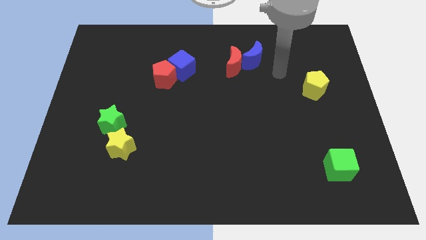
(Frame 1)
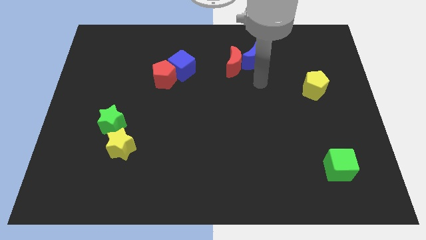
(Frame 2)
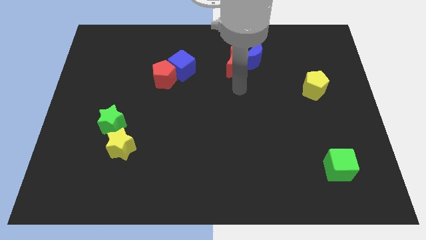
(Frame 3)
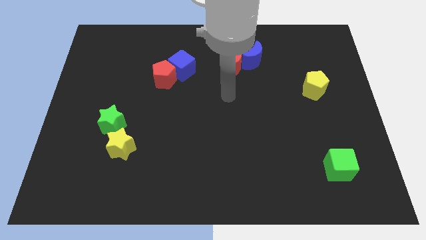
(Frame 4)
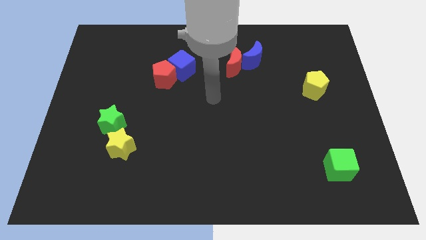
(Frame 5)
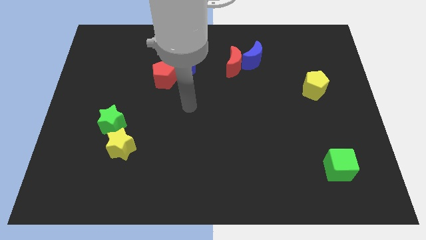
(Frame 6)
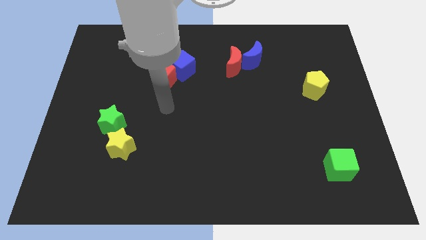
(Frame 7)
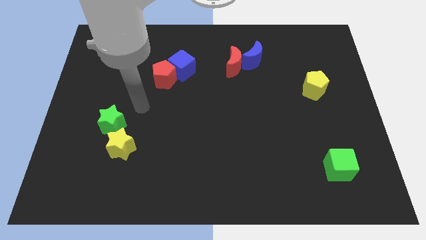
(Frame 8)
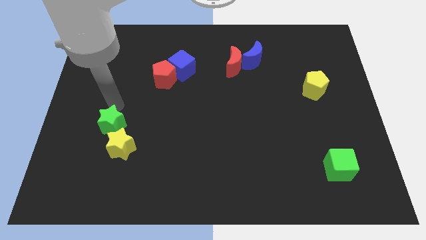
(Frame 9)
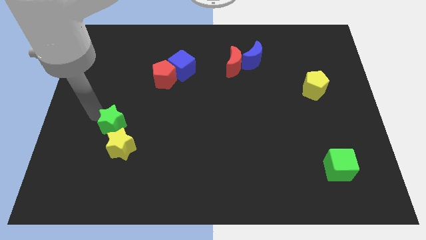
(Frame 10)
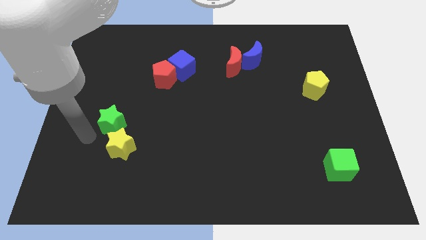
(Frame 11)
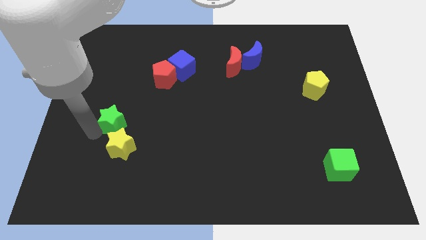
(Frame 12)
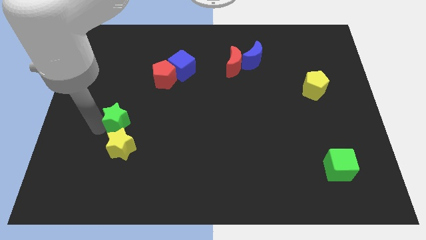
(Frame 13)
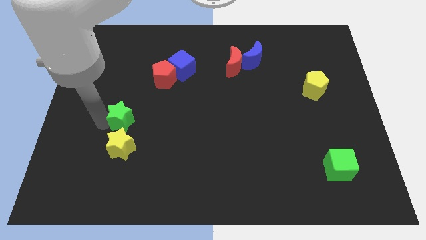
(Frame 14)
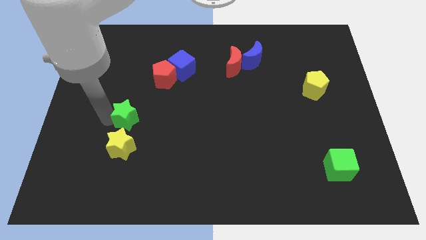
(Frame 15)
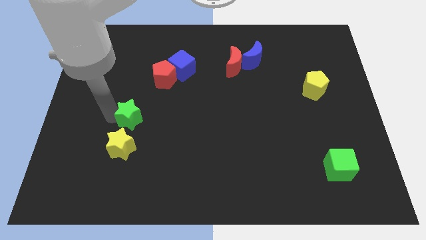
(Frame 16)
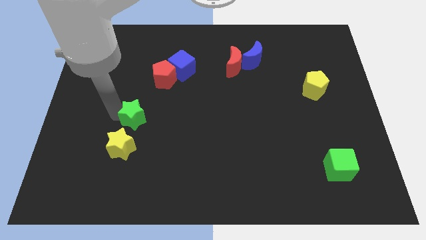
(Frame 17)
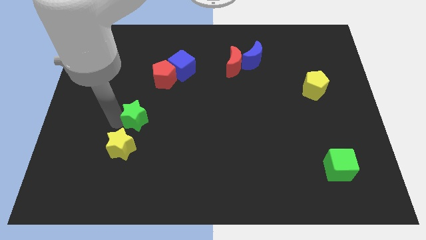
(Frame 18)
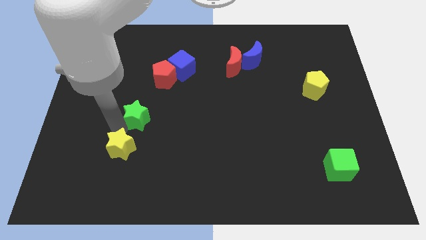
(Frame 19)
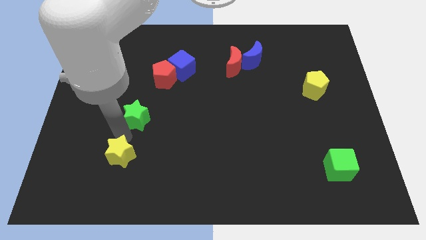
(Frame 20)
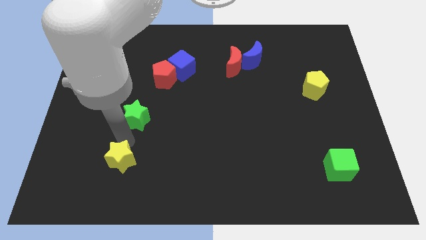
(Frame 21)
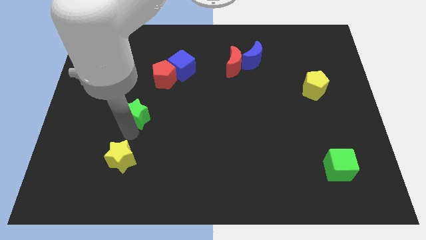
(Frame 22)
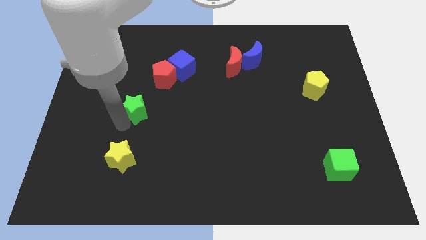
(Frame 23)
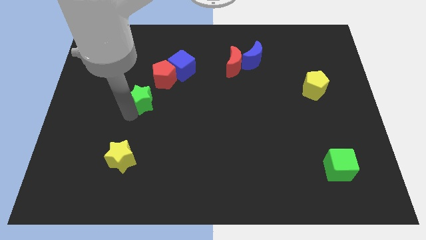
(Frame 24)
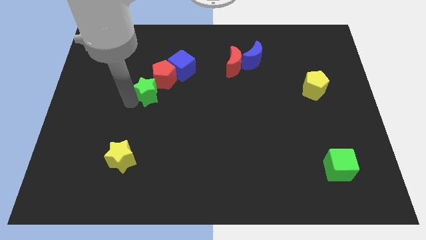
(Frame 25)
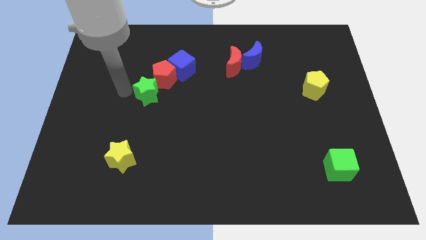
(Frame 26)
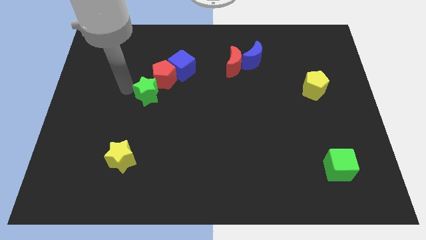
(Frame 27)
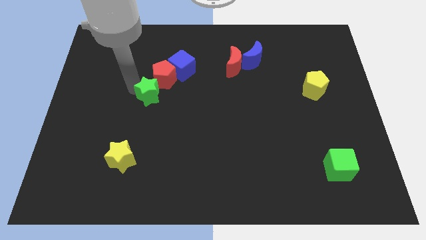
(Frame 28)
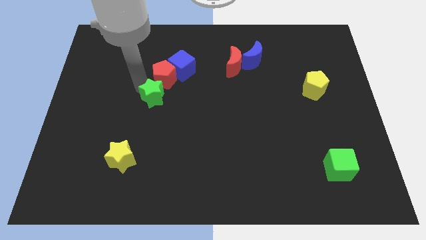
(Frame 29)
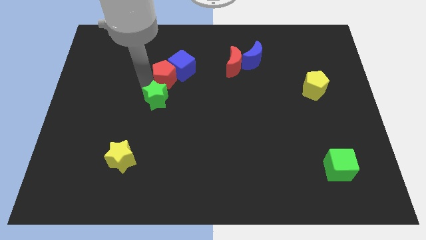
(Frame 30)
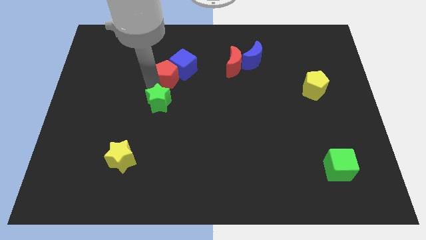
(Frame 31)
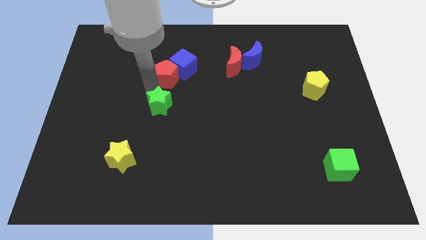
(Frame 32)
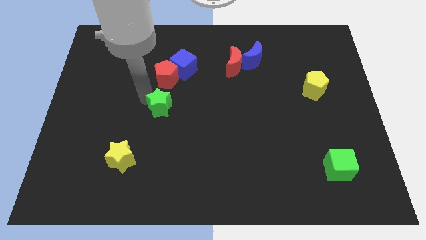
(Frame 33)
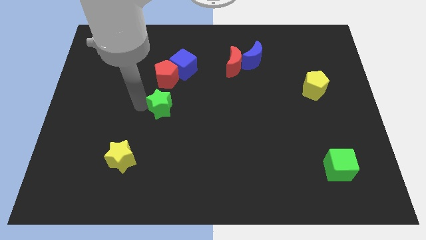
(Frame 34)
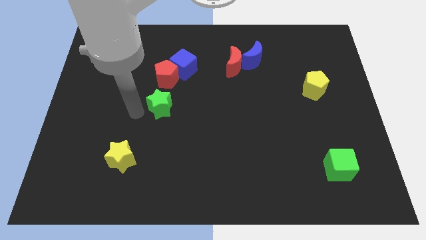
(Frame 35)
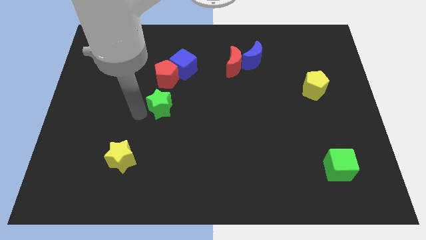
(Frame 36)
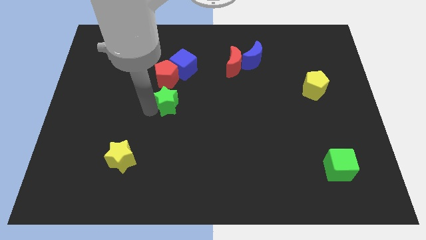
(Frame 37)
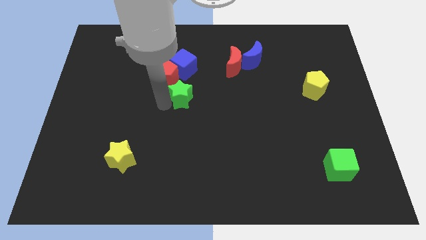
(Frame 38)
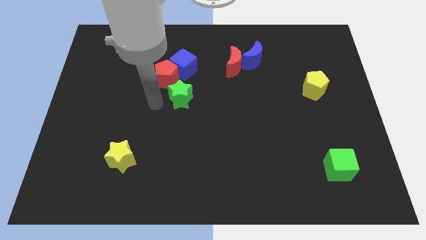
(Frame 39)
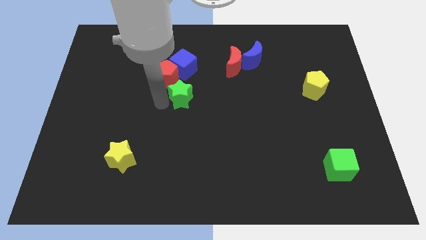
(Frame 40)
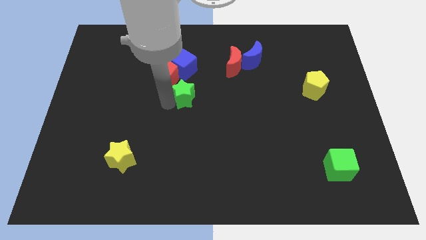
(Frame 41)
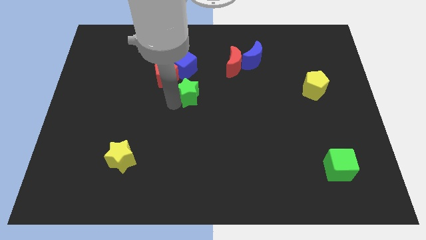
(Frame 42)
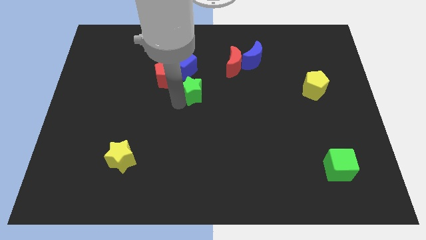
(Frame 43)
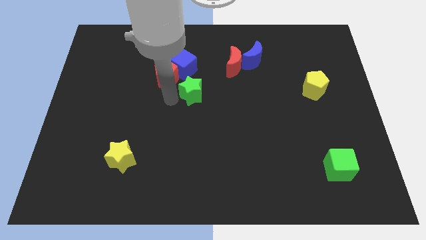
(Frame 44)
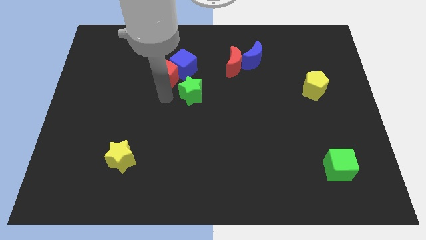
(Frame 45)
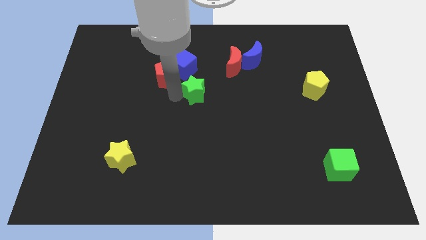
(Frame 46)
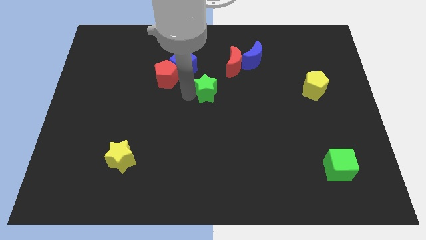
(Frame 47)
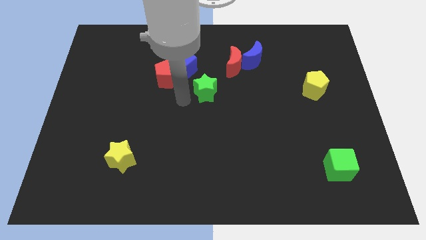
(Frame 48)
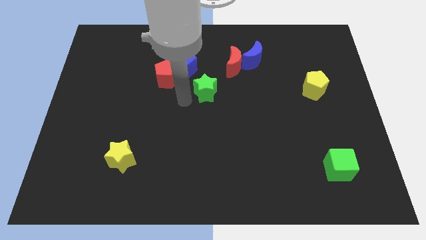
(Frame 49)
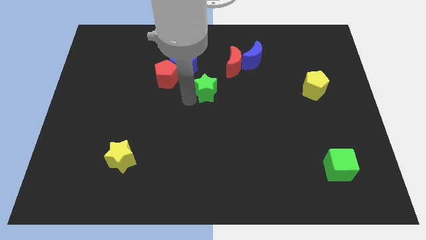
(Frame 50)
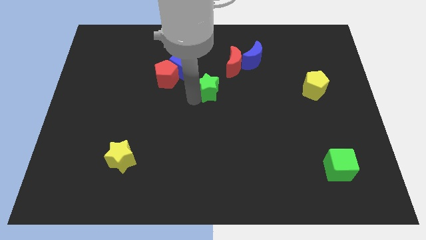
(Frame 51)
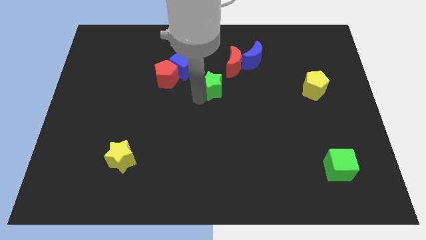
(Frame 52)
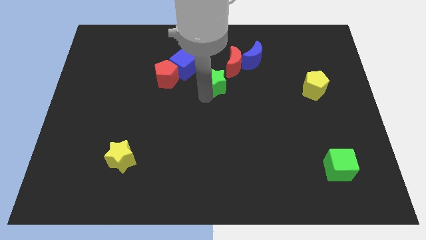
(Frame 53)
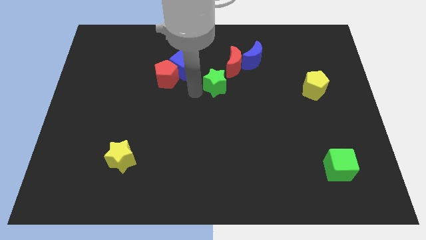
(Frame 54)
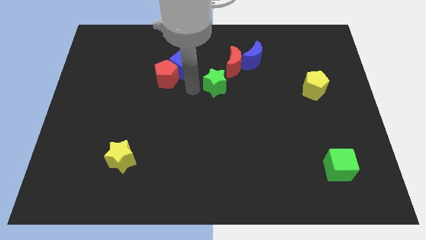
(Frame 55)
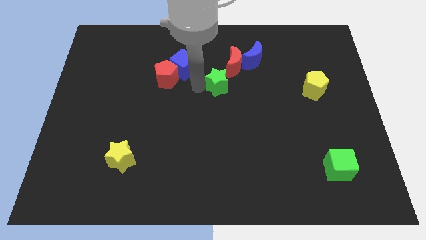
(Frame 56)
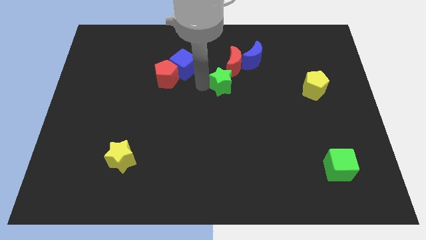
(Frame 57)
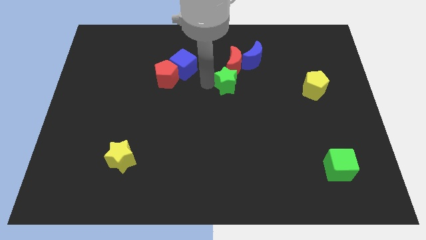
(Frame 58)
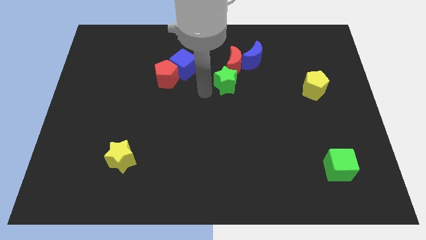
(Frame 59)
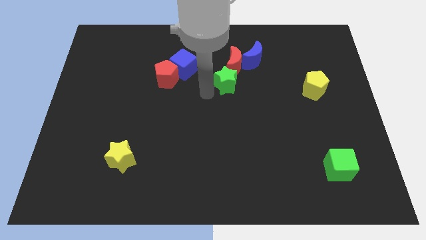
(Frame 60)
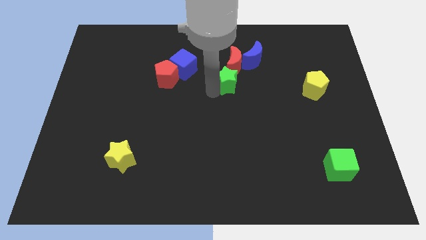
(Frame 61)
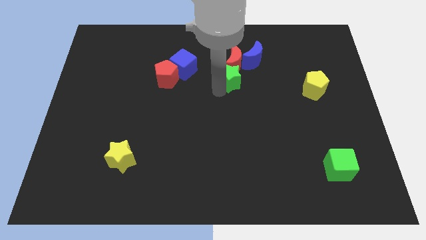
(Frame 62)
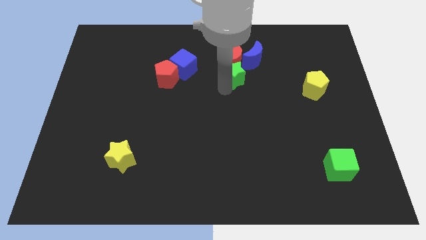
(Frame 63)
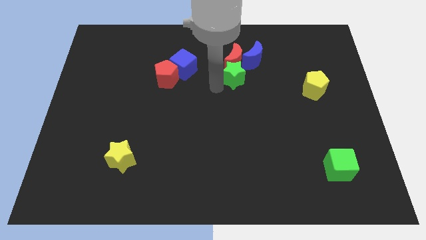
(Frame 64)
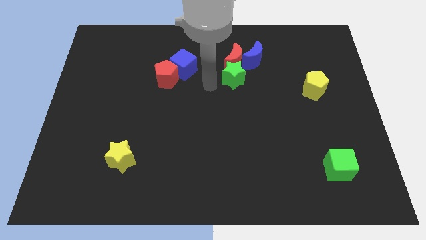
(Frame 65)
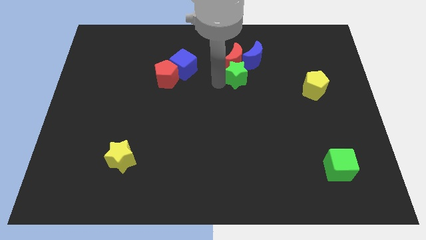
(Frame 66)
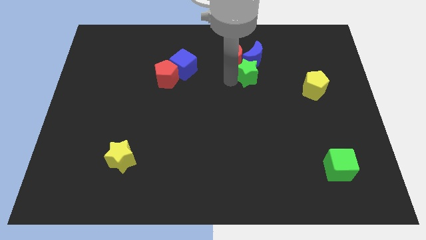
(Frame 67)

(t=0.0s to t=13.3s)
slide the green star next to the blue moon

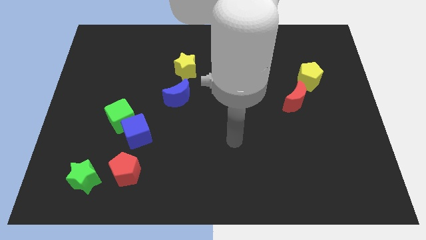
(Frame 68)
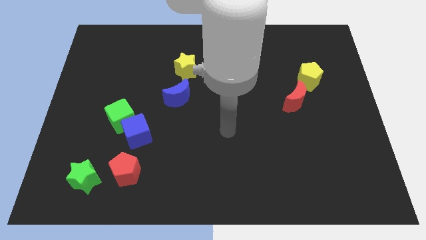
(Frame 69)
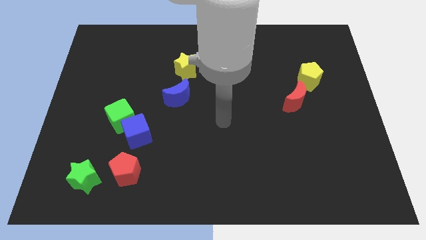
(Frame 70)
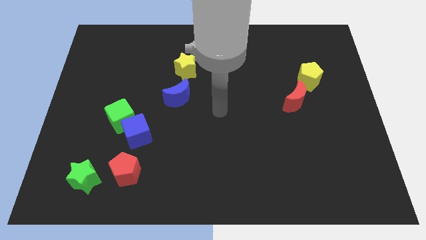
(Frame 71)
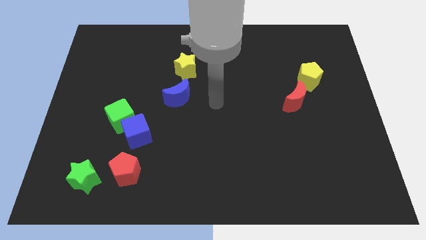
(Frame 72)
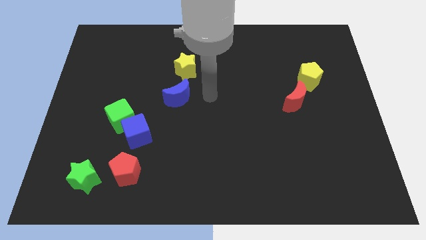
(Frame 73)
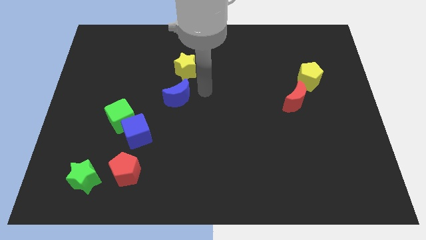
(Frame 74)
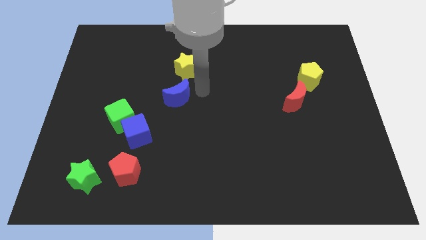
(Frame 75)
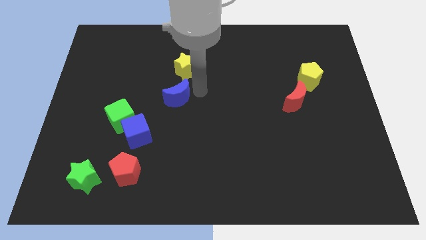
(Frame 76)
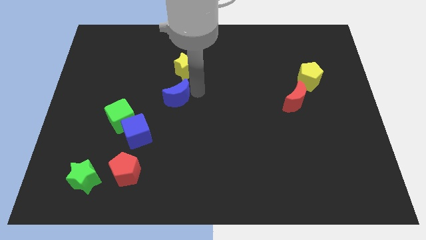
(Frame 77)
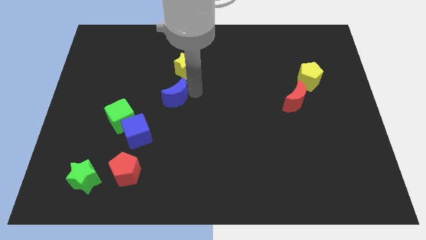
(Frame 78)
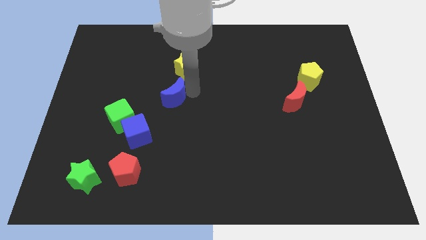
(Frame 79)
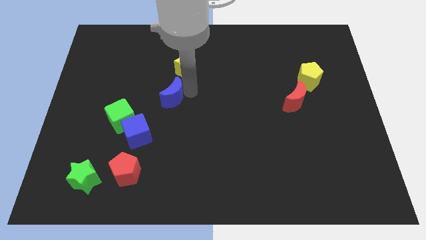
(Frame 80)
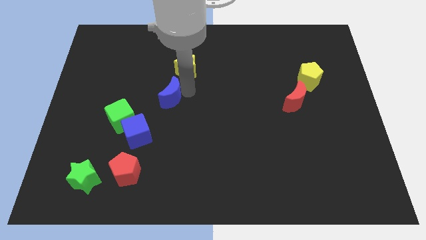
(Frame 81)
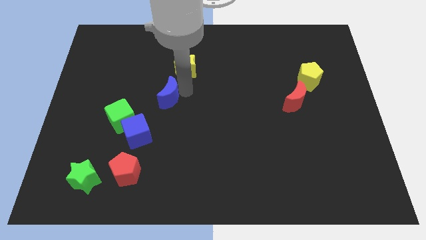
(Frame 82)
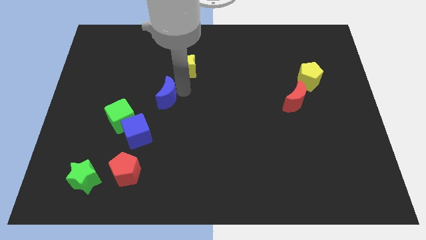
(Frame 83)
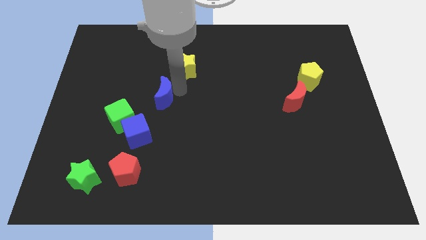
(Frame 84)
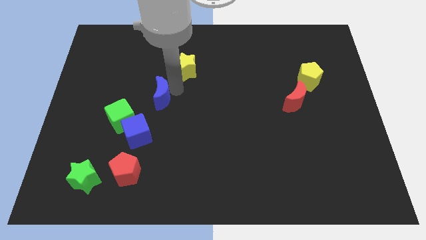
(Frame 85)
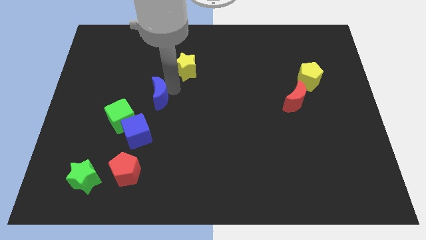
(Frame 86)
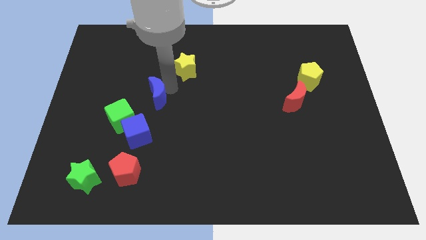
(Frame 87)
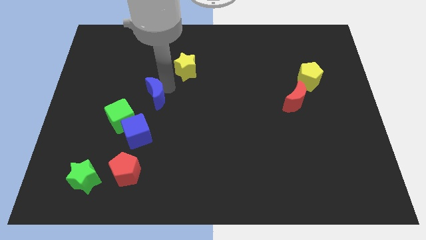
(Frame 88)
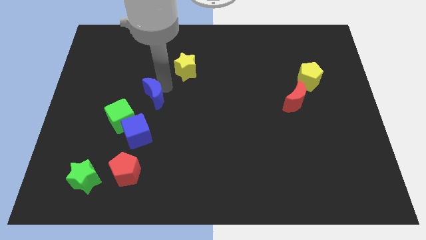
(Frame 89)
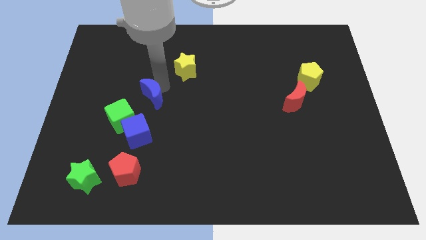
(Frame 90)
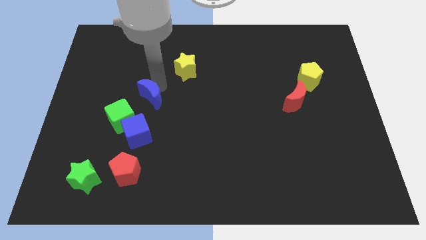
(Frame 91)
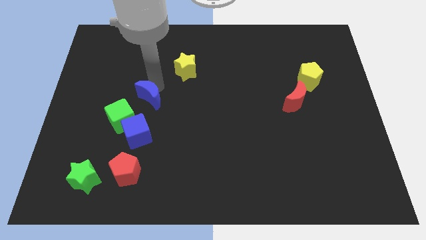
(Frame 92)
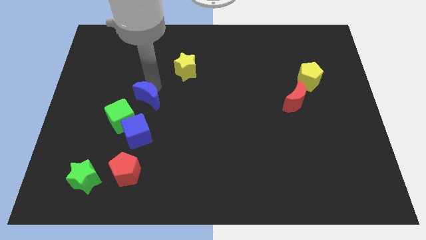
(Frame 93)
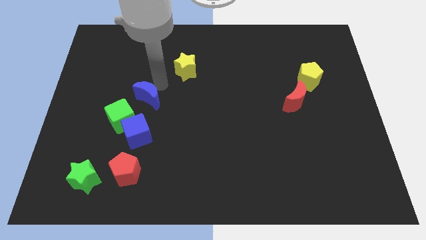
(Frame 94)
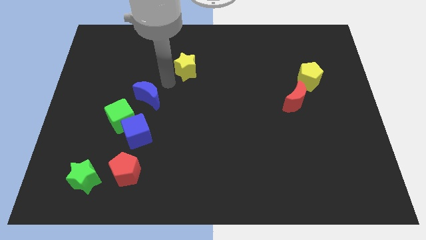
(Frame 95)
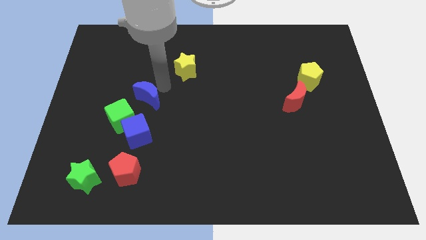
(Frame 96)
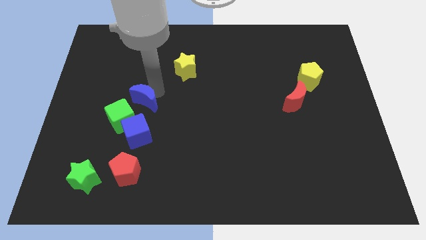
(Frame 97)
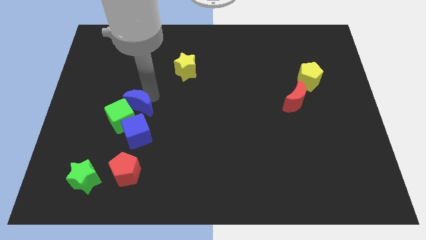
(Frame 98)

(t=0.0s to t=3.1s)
slide the blue moon close to the green cube
